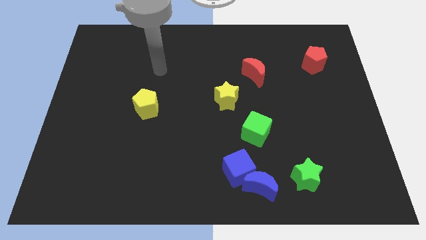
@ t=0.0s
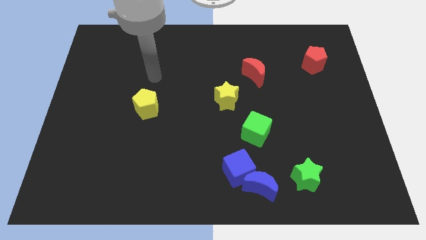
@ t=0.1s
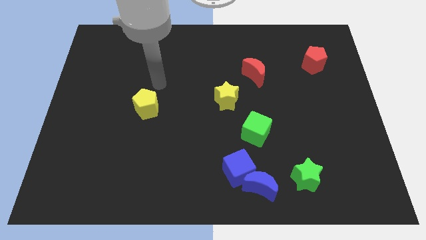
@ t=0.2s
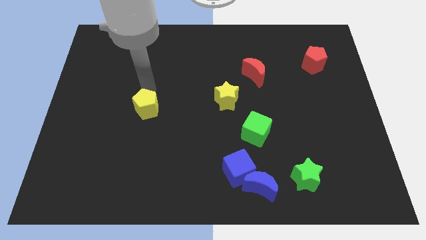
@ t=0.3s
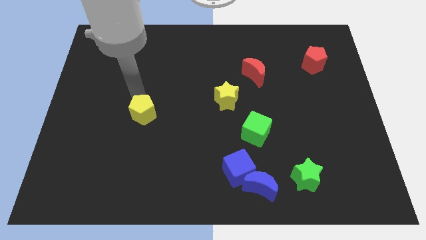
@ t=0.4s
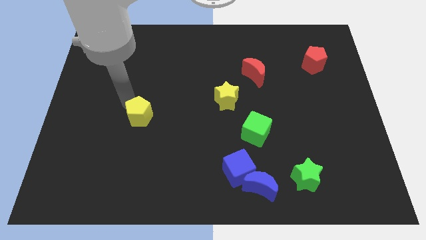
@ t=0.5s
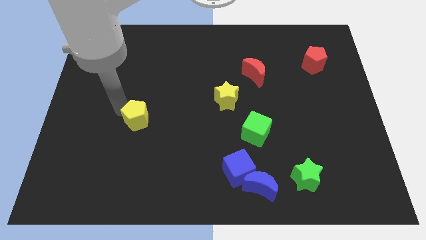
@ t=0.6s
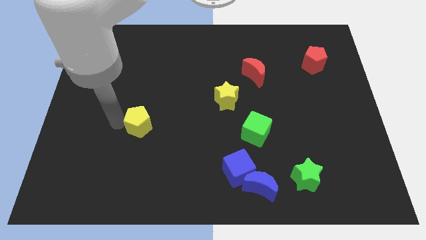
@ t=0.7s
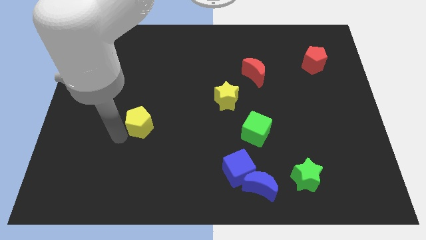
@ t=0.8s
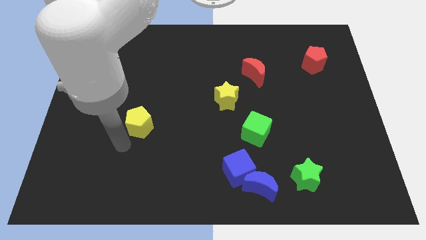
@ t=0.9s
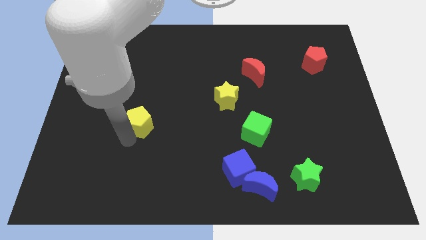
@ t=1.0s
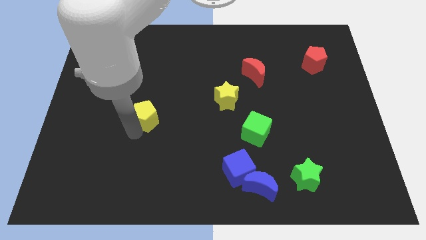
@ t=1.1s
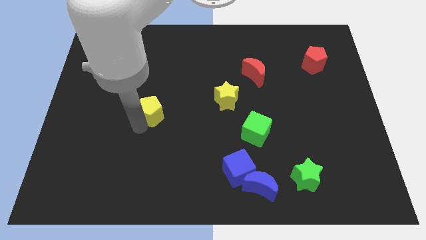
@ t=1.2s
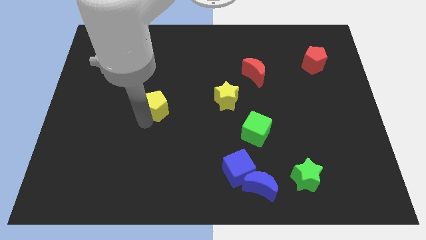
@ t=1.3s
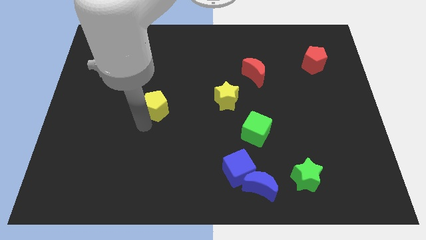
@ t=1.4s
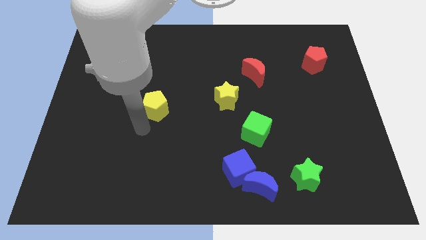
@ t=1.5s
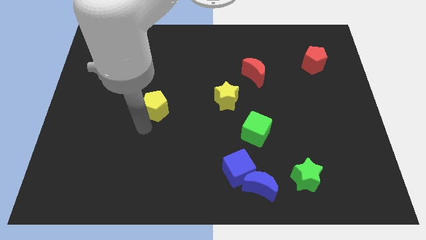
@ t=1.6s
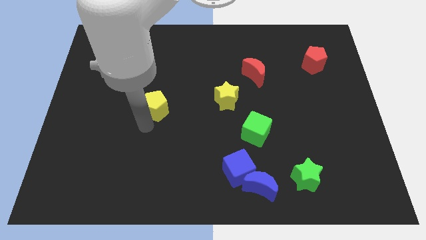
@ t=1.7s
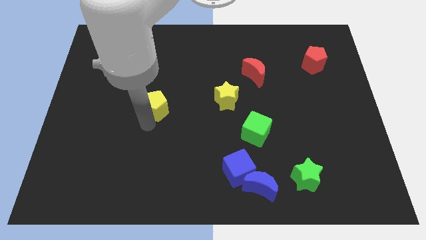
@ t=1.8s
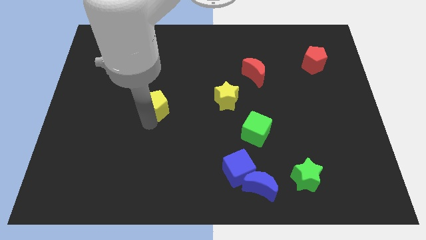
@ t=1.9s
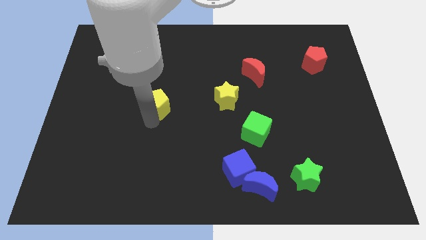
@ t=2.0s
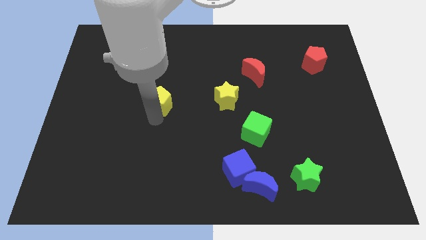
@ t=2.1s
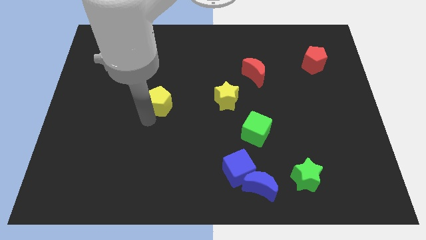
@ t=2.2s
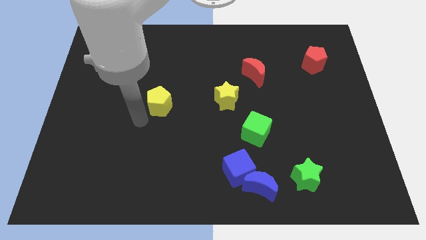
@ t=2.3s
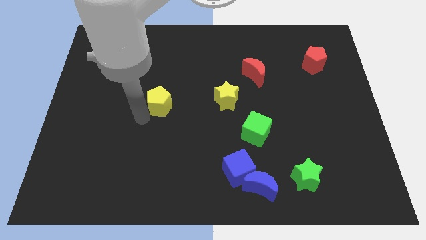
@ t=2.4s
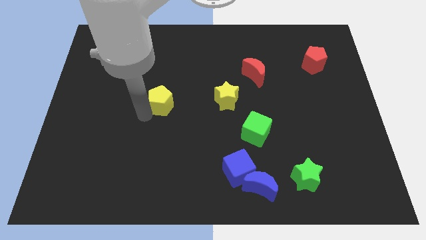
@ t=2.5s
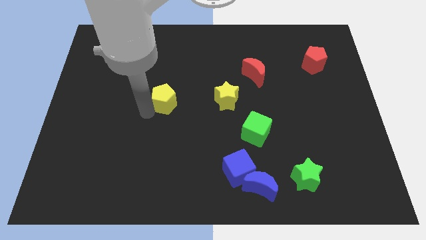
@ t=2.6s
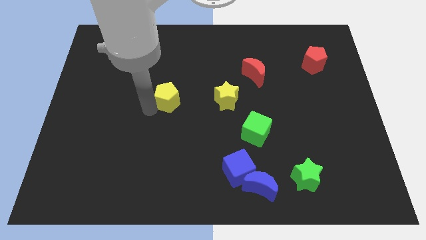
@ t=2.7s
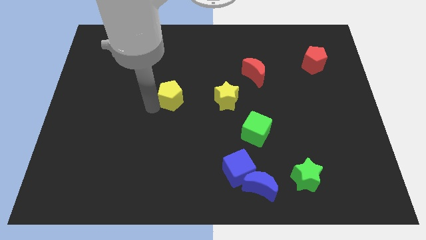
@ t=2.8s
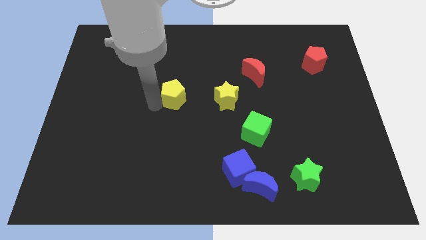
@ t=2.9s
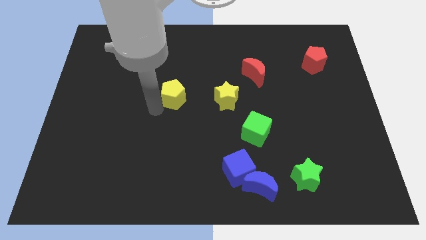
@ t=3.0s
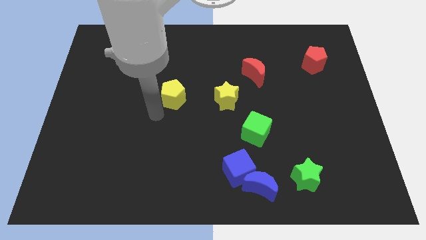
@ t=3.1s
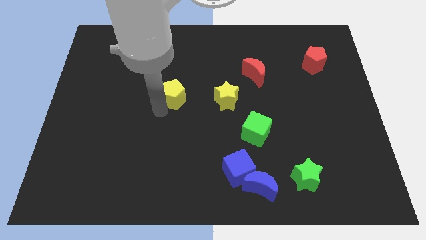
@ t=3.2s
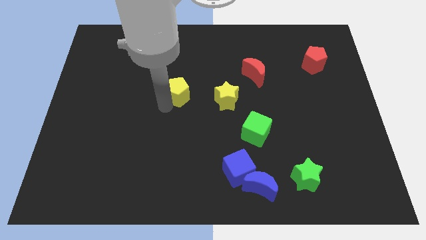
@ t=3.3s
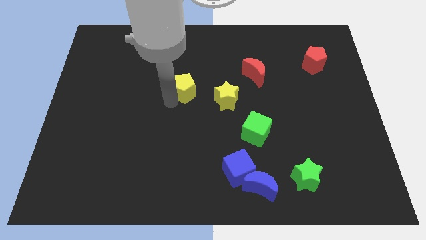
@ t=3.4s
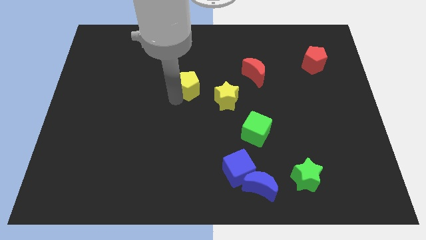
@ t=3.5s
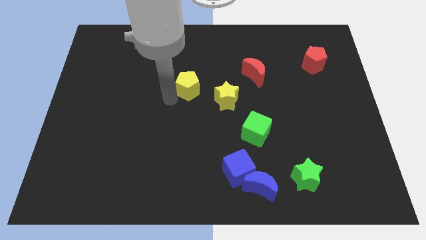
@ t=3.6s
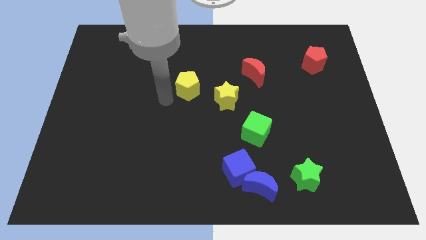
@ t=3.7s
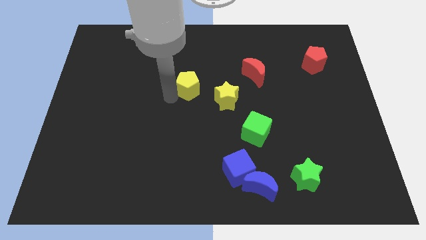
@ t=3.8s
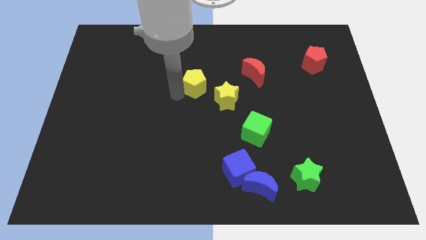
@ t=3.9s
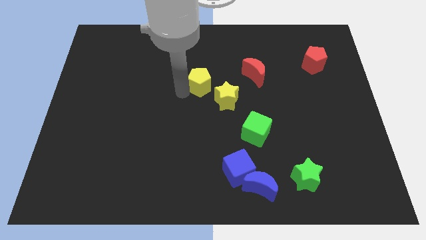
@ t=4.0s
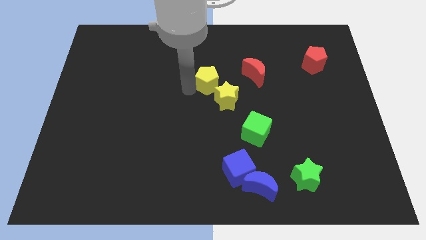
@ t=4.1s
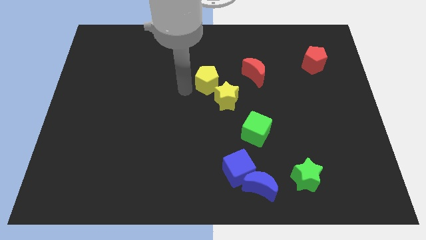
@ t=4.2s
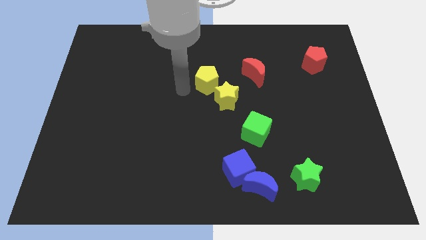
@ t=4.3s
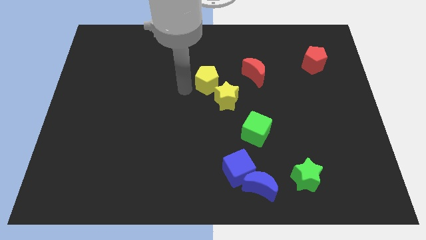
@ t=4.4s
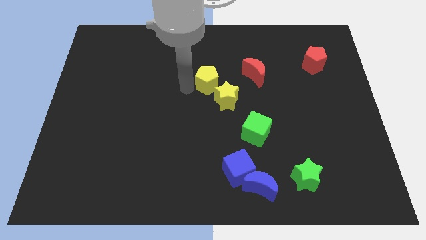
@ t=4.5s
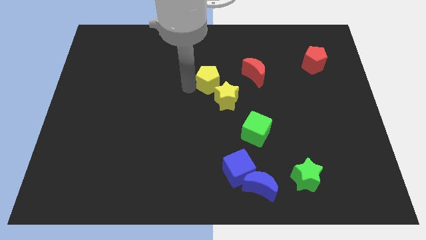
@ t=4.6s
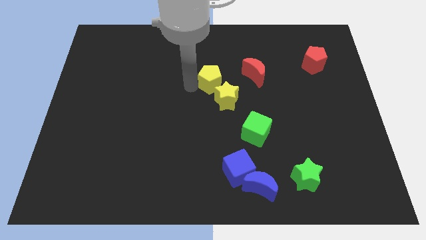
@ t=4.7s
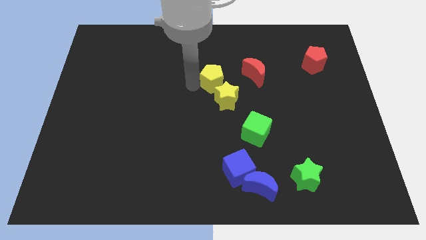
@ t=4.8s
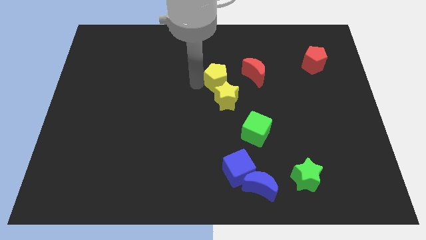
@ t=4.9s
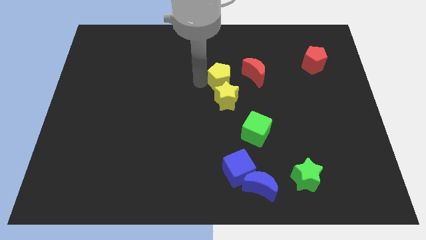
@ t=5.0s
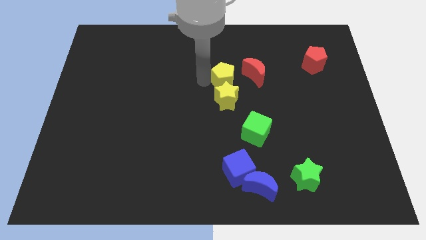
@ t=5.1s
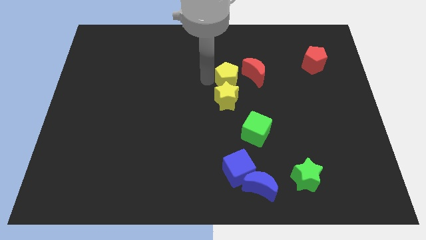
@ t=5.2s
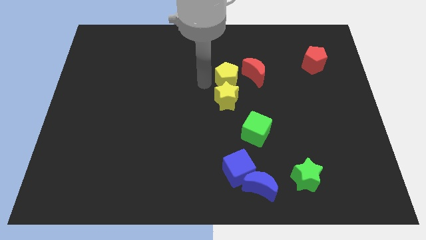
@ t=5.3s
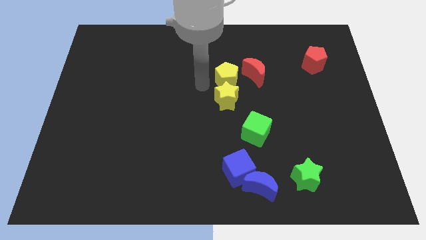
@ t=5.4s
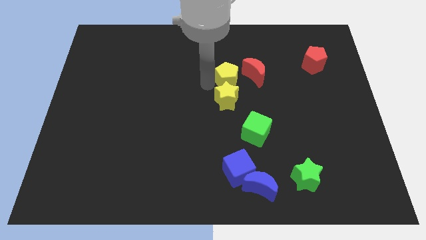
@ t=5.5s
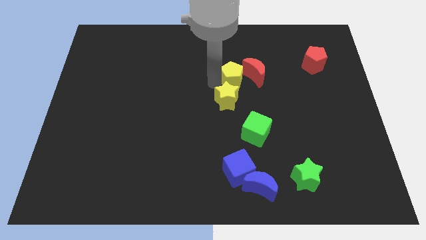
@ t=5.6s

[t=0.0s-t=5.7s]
move the yellow pentagon next to the red moon

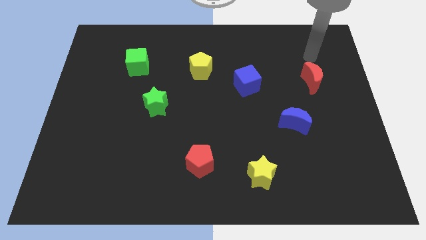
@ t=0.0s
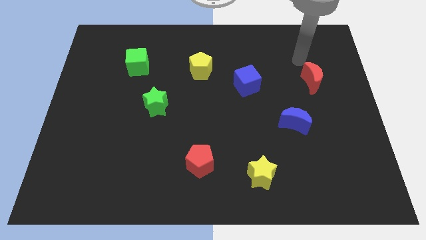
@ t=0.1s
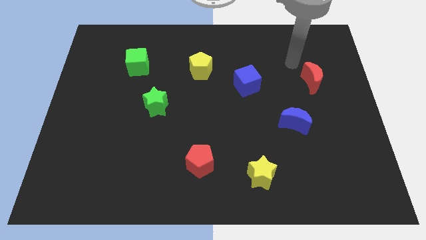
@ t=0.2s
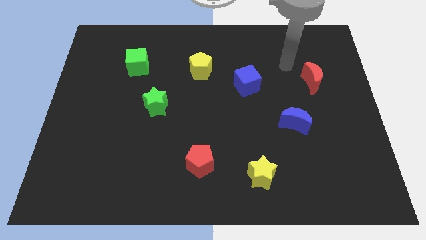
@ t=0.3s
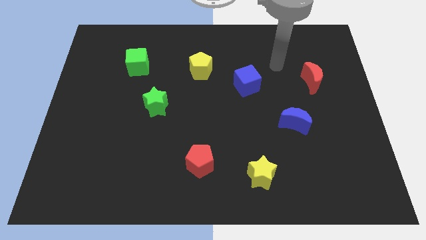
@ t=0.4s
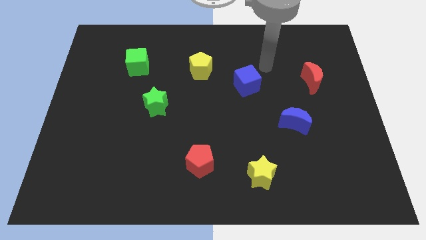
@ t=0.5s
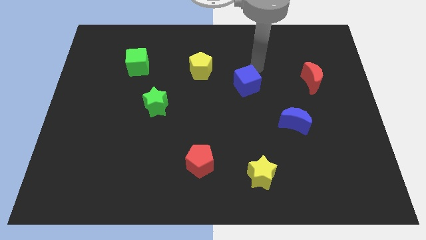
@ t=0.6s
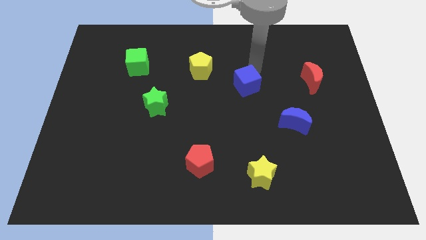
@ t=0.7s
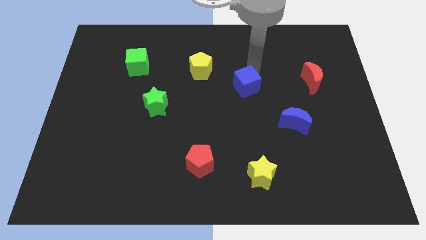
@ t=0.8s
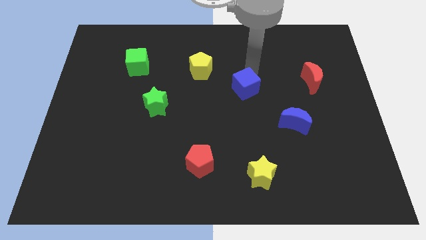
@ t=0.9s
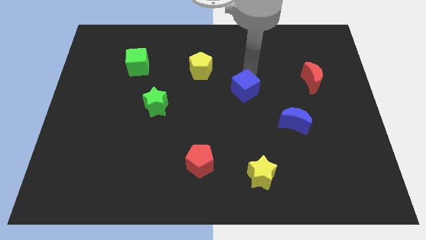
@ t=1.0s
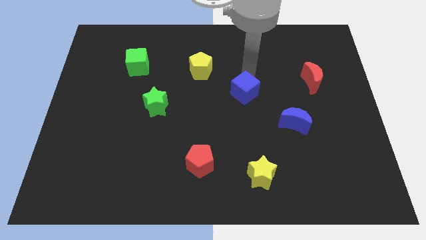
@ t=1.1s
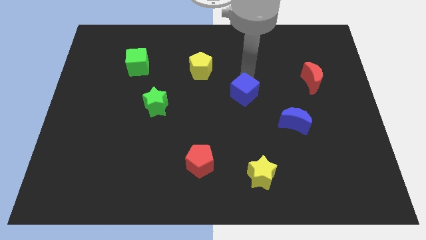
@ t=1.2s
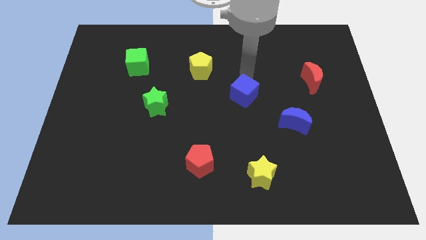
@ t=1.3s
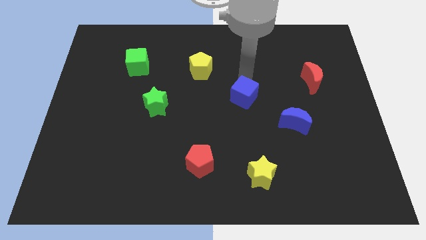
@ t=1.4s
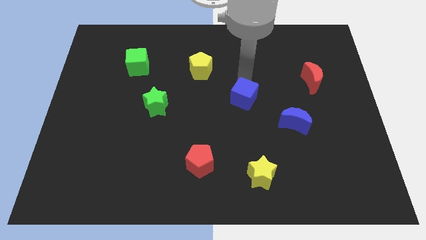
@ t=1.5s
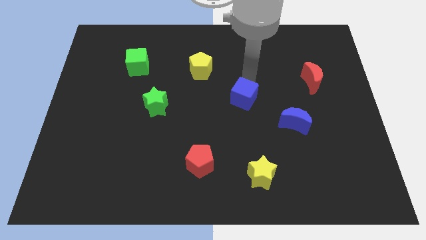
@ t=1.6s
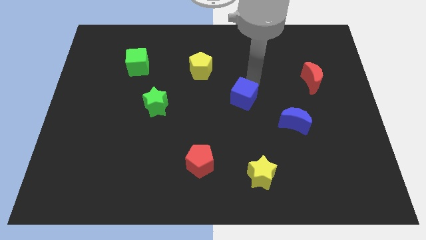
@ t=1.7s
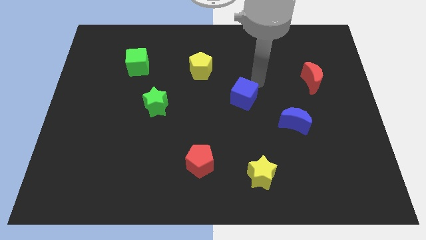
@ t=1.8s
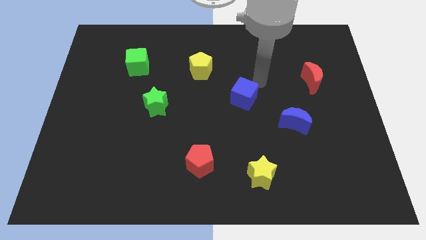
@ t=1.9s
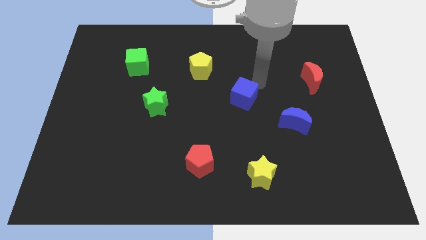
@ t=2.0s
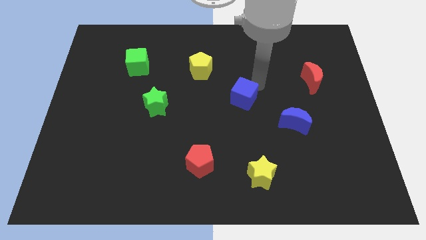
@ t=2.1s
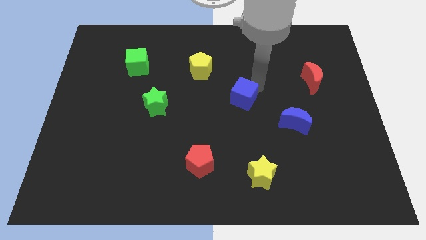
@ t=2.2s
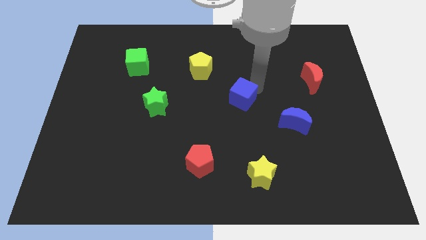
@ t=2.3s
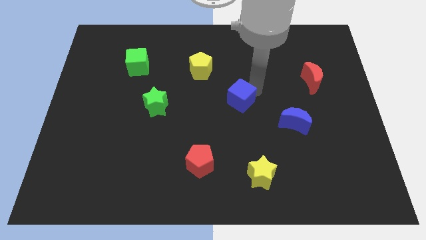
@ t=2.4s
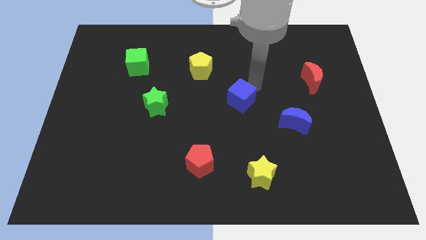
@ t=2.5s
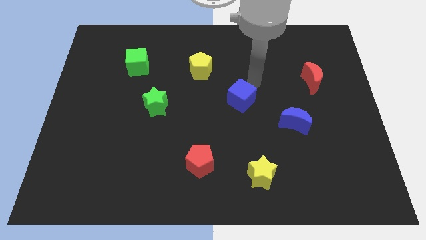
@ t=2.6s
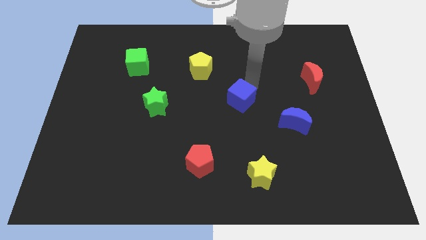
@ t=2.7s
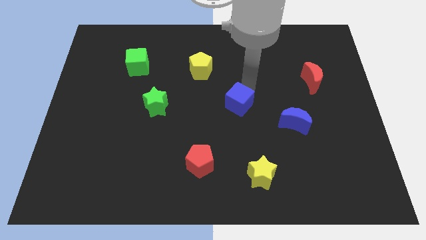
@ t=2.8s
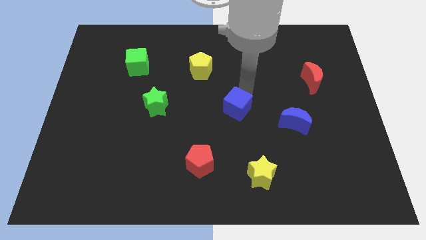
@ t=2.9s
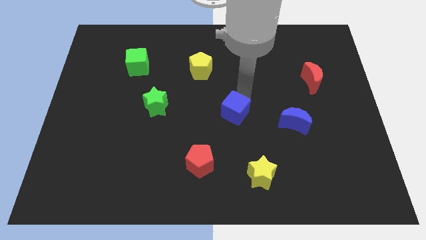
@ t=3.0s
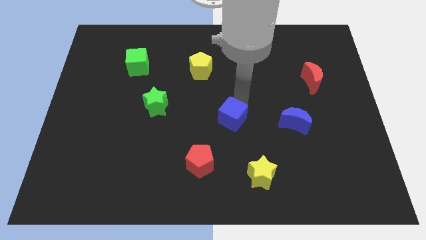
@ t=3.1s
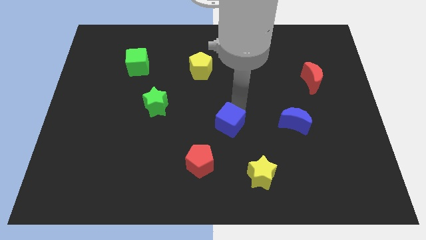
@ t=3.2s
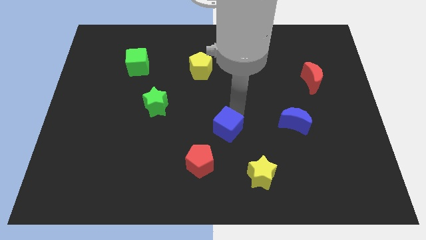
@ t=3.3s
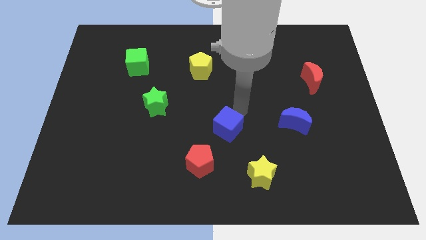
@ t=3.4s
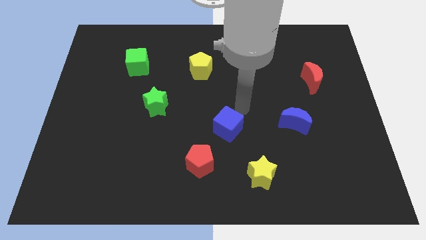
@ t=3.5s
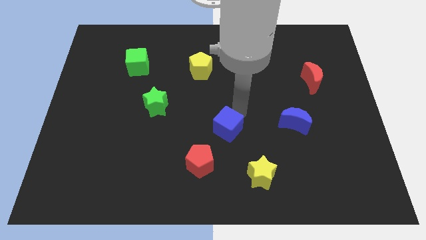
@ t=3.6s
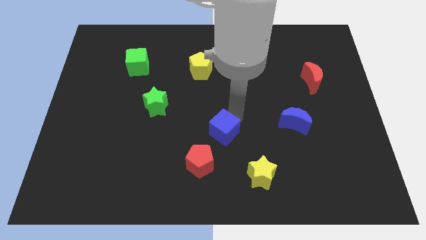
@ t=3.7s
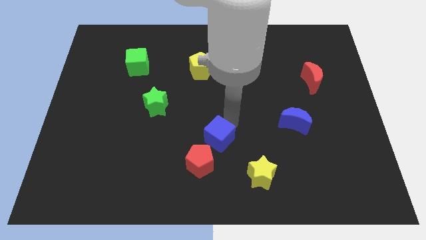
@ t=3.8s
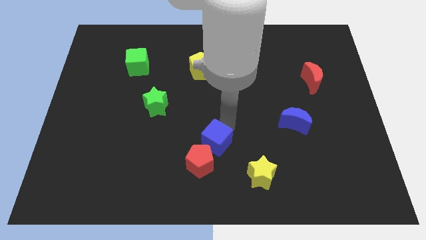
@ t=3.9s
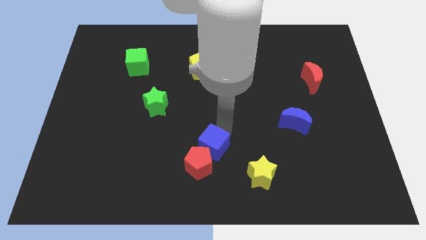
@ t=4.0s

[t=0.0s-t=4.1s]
put the blue cube close to the red pentagon
